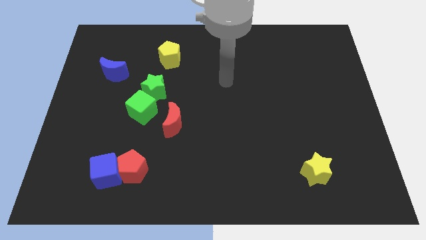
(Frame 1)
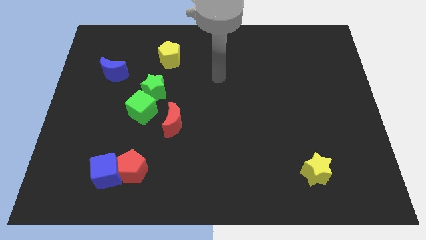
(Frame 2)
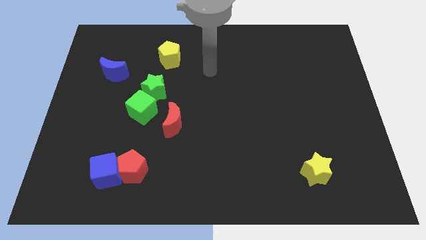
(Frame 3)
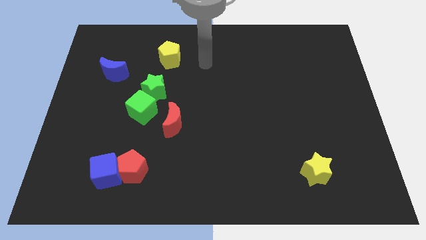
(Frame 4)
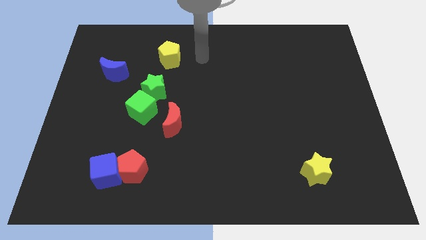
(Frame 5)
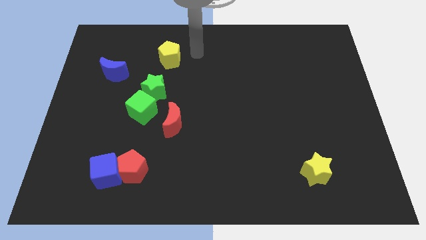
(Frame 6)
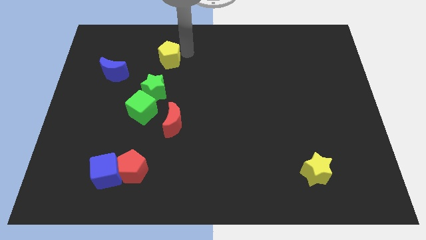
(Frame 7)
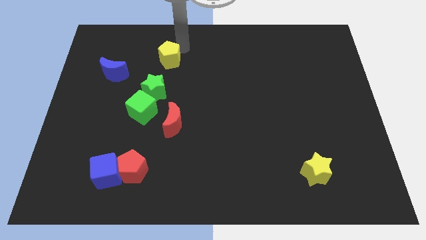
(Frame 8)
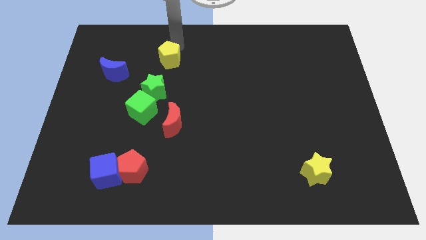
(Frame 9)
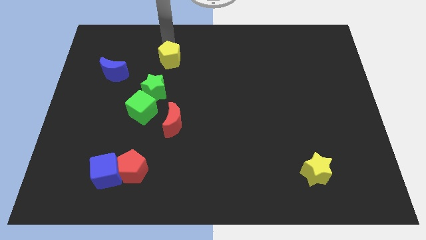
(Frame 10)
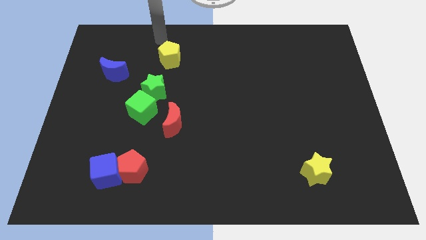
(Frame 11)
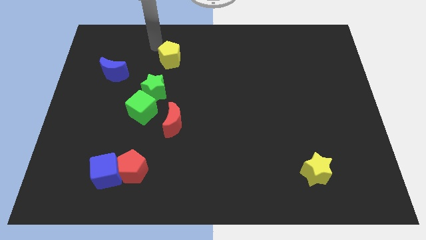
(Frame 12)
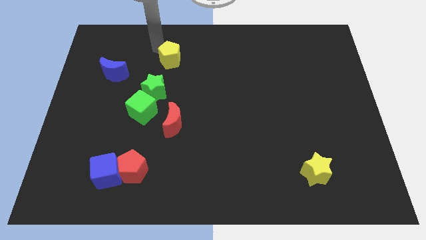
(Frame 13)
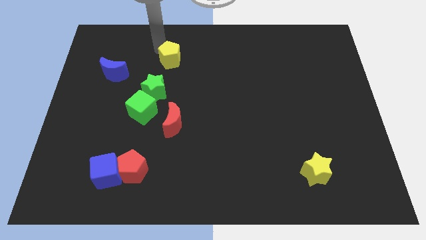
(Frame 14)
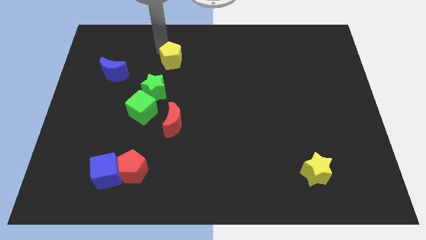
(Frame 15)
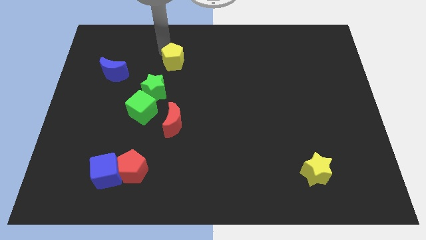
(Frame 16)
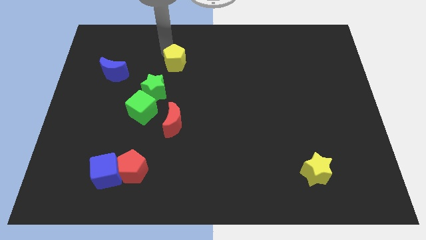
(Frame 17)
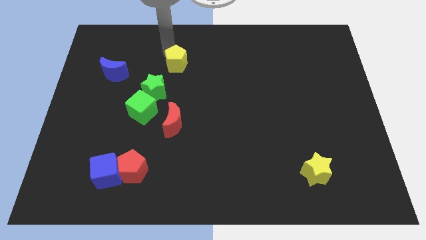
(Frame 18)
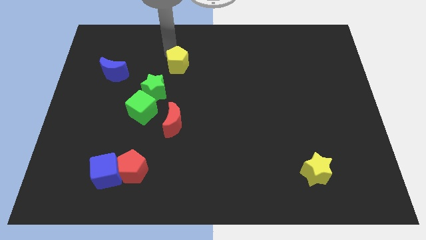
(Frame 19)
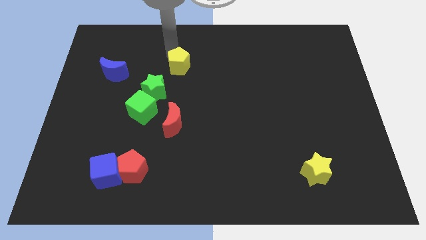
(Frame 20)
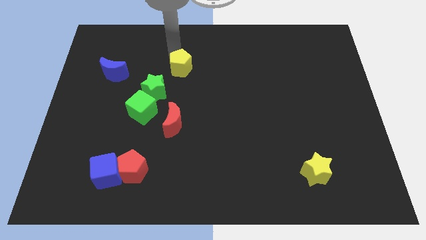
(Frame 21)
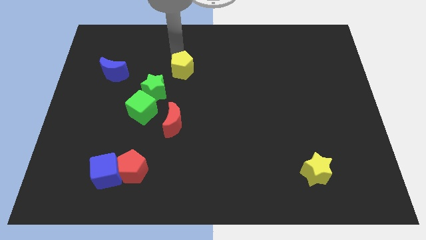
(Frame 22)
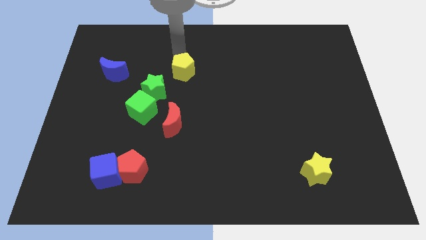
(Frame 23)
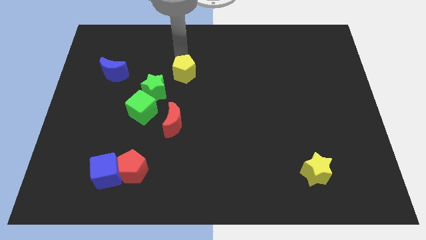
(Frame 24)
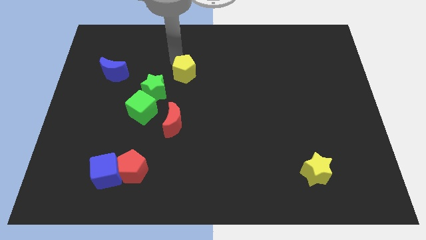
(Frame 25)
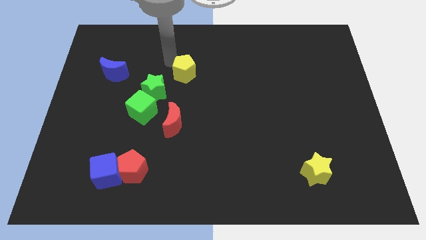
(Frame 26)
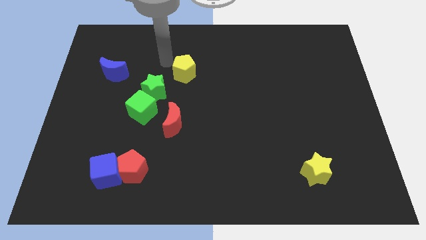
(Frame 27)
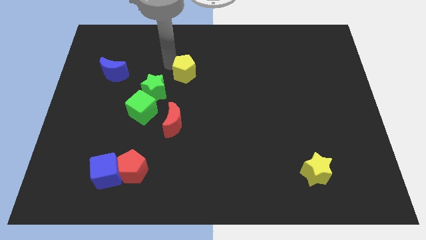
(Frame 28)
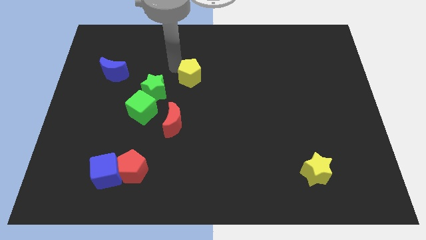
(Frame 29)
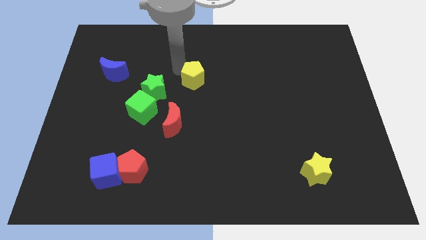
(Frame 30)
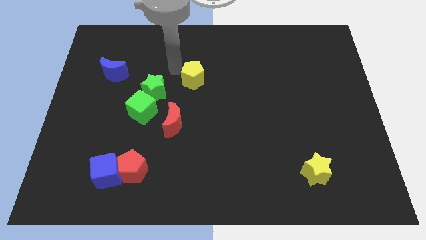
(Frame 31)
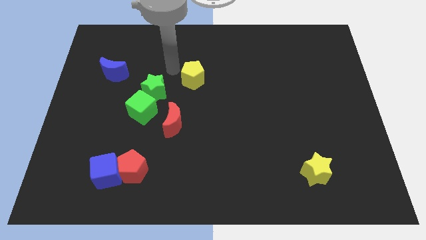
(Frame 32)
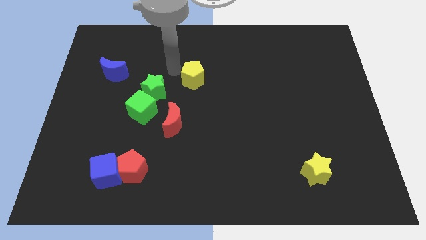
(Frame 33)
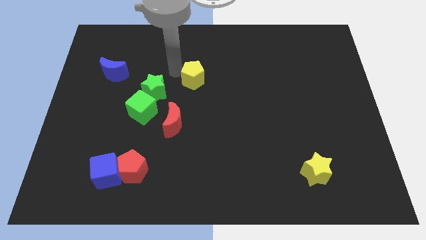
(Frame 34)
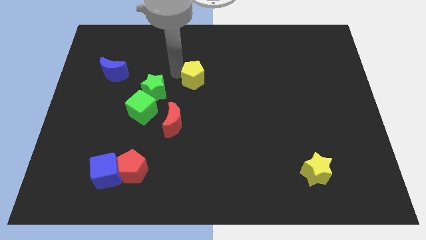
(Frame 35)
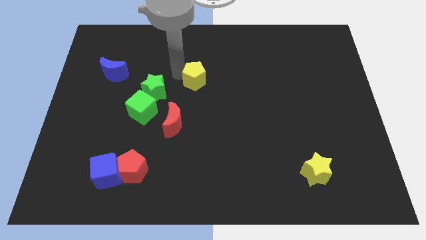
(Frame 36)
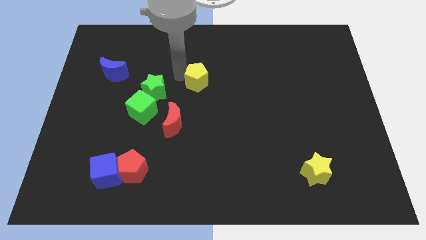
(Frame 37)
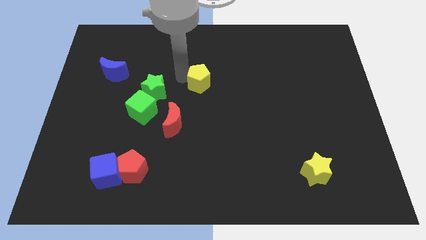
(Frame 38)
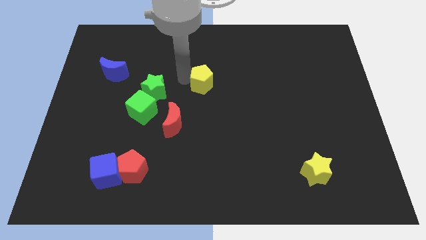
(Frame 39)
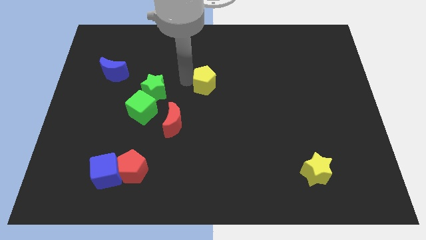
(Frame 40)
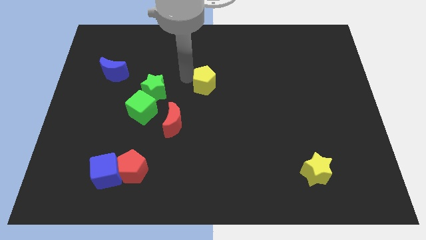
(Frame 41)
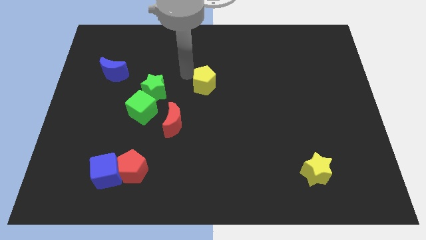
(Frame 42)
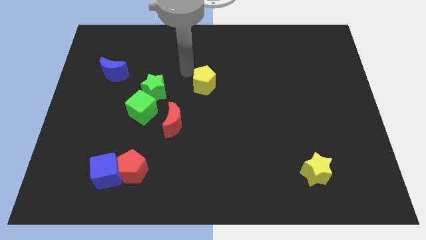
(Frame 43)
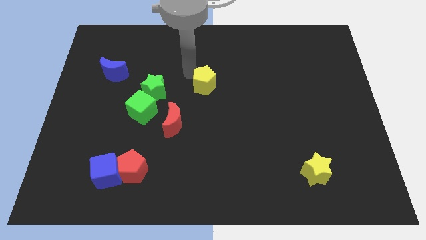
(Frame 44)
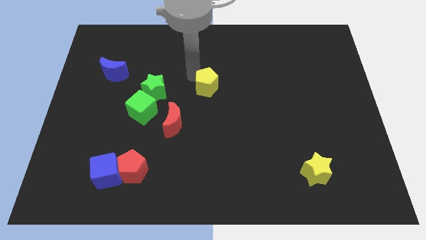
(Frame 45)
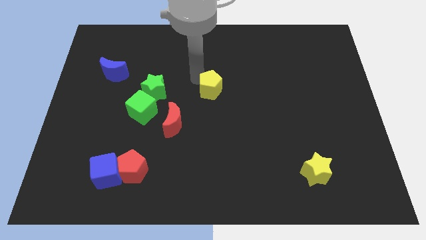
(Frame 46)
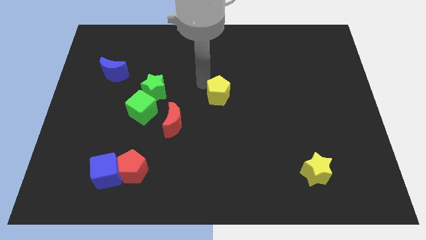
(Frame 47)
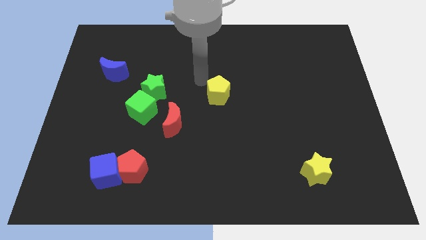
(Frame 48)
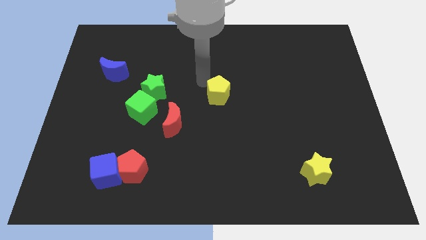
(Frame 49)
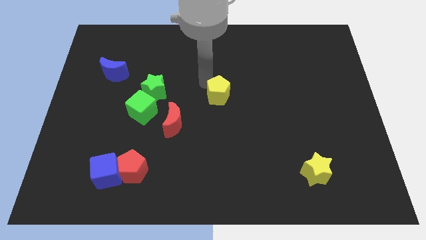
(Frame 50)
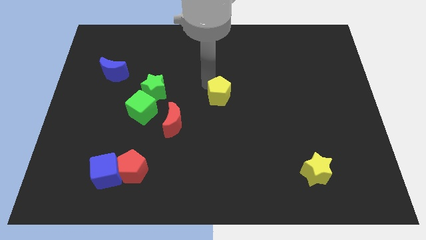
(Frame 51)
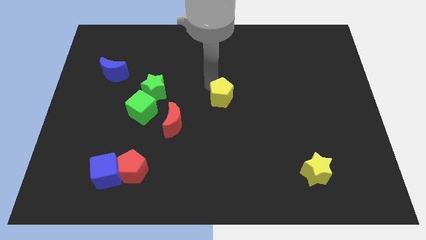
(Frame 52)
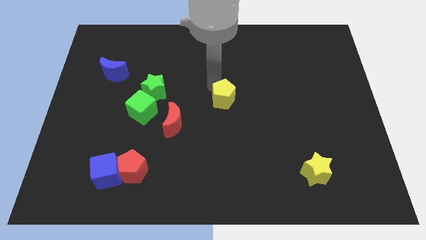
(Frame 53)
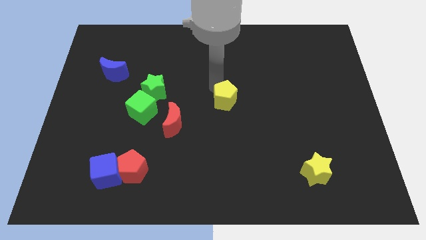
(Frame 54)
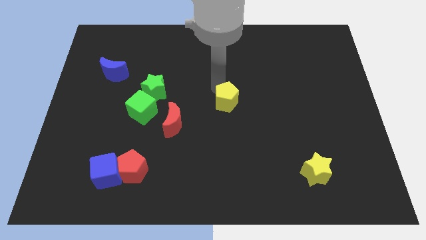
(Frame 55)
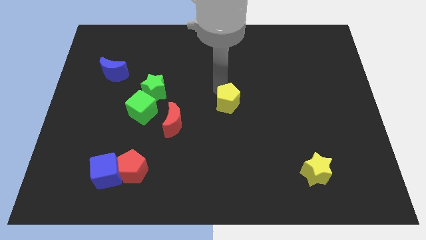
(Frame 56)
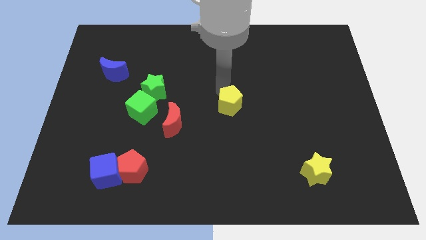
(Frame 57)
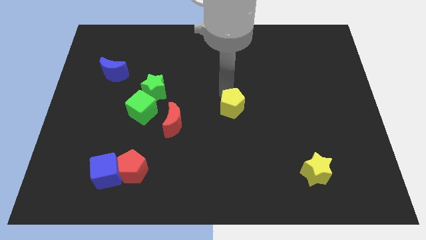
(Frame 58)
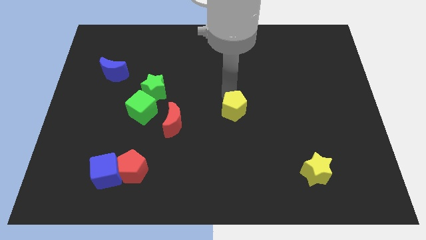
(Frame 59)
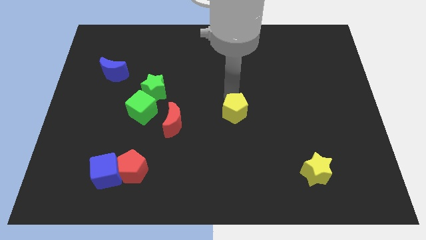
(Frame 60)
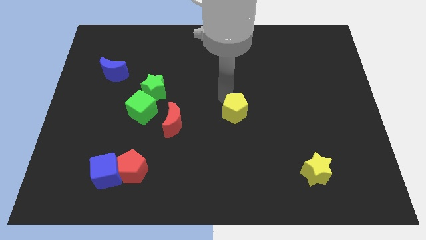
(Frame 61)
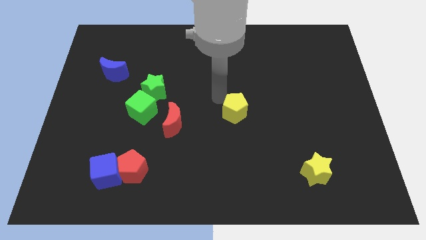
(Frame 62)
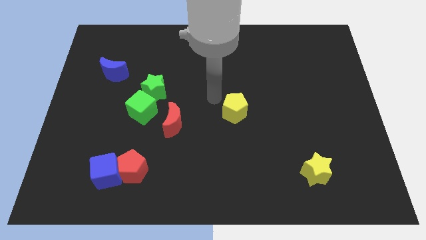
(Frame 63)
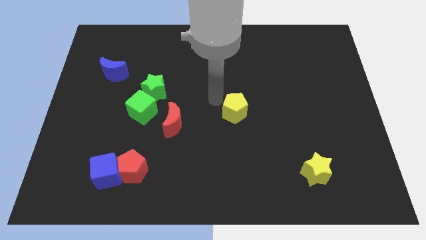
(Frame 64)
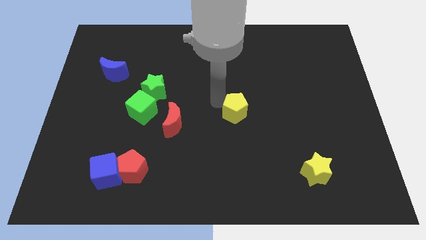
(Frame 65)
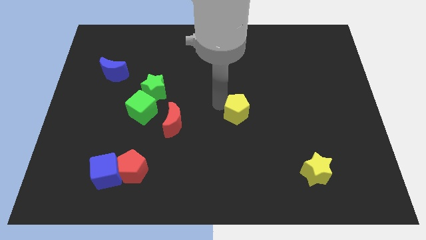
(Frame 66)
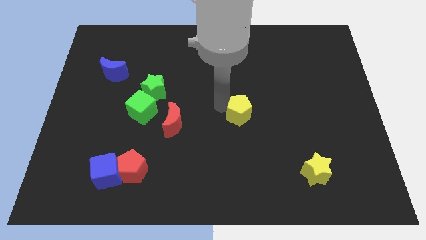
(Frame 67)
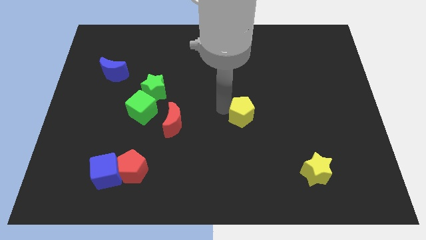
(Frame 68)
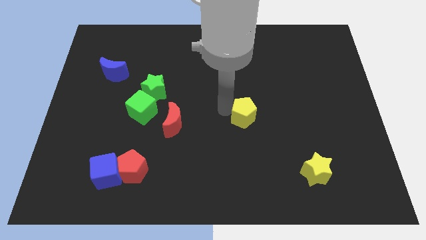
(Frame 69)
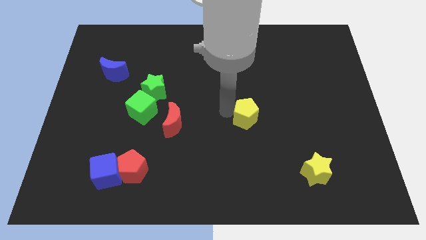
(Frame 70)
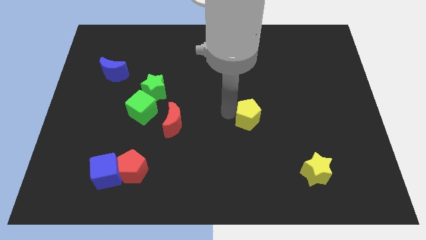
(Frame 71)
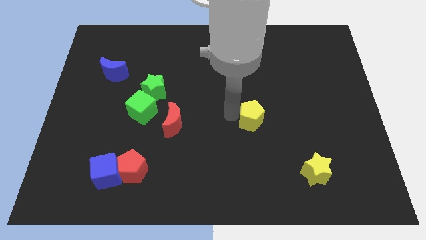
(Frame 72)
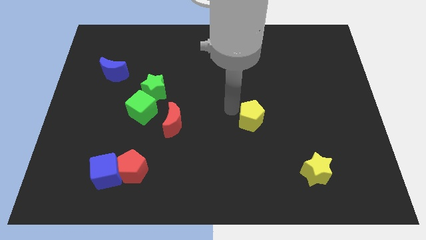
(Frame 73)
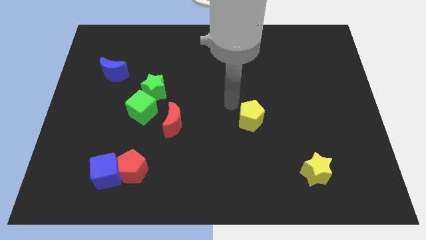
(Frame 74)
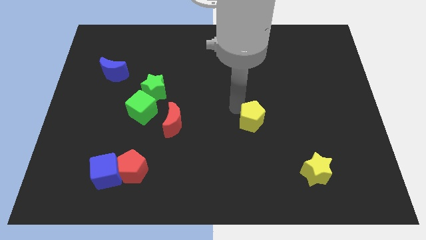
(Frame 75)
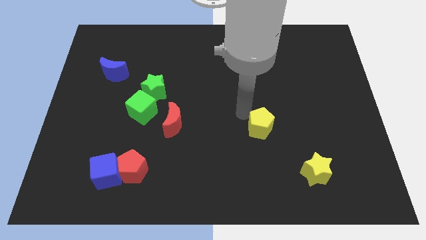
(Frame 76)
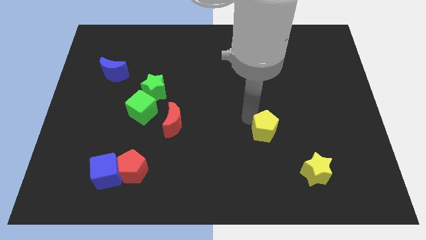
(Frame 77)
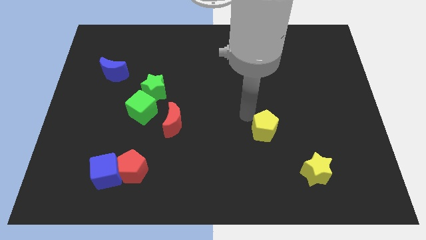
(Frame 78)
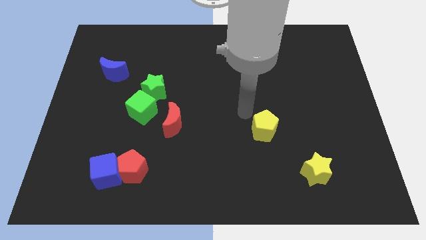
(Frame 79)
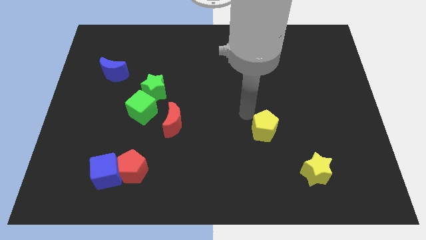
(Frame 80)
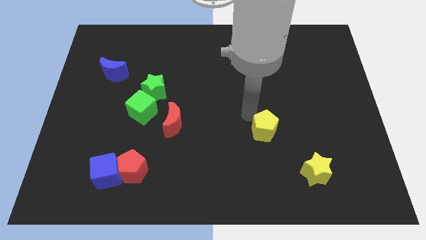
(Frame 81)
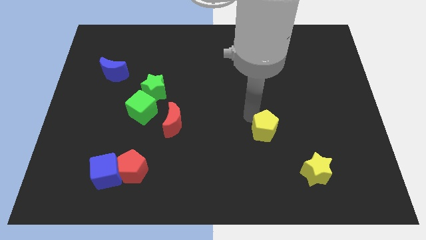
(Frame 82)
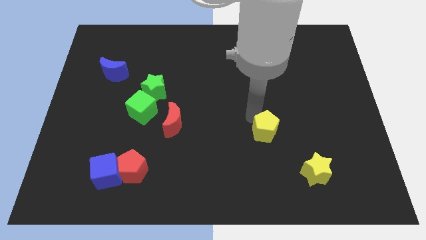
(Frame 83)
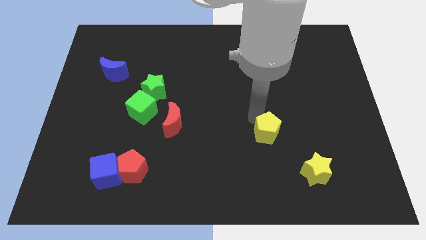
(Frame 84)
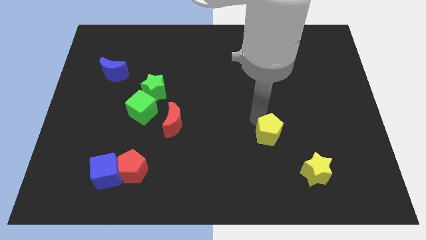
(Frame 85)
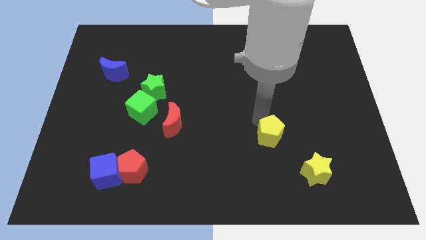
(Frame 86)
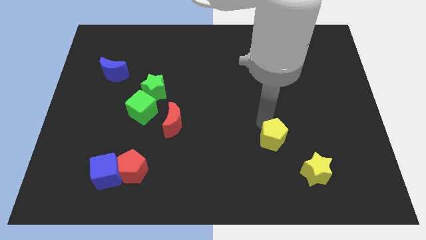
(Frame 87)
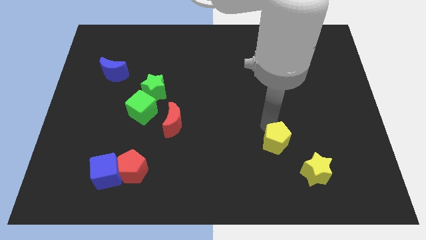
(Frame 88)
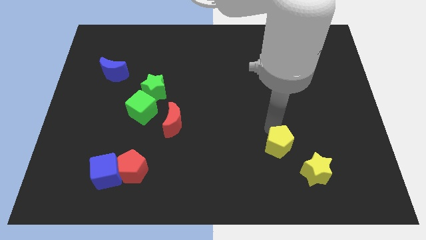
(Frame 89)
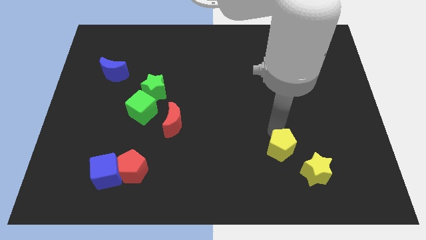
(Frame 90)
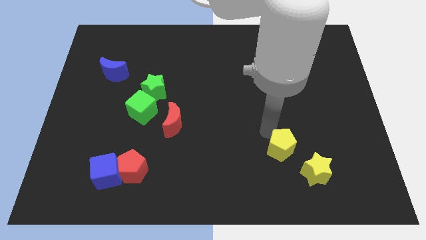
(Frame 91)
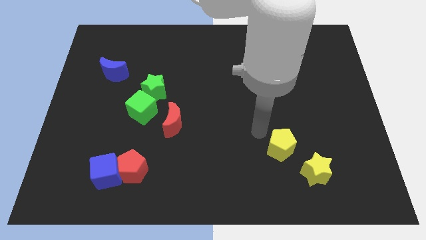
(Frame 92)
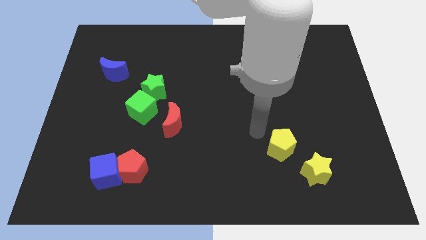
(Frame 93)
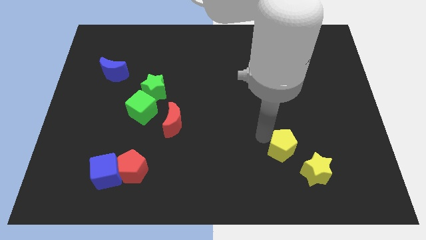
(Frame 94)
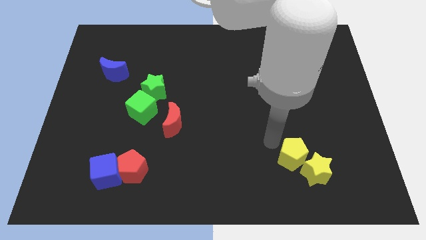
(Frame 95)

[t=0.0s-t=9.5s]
push the yellow pentagon to the yellow star
